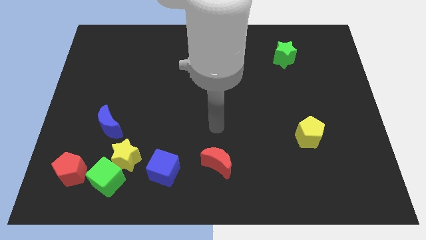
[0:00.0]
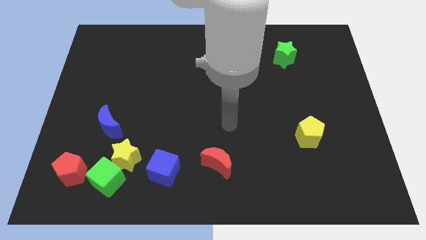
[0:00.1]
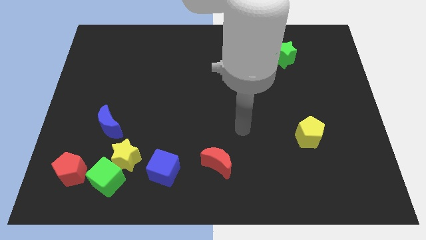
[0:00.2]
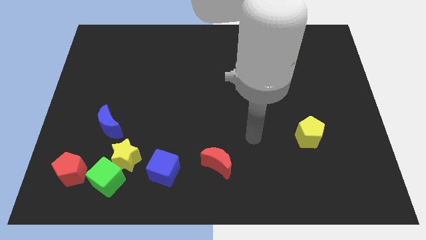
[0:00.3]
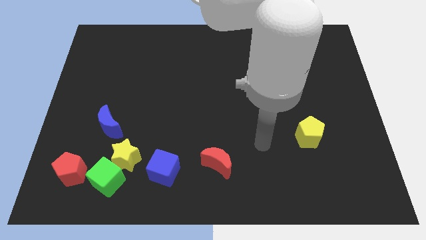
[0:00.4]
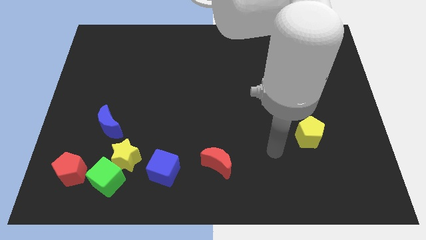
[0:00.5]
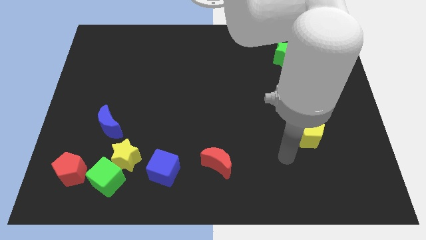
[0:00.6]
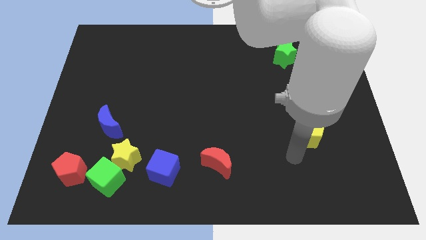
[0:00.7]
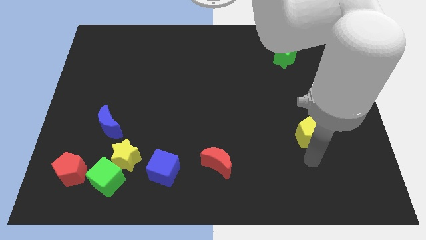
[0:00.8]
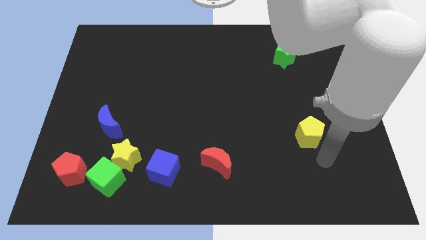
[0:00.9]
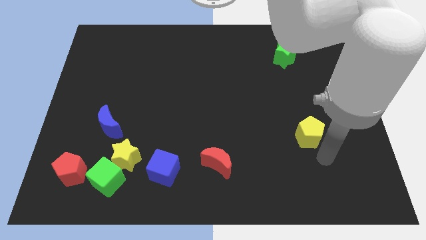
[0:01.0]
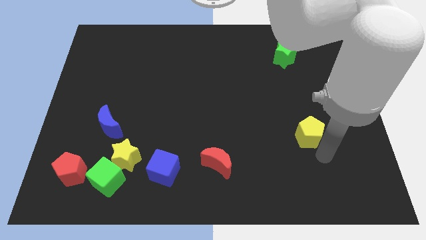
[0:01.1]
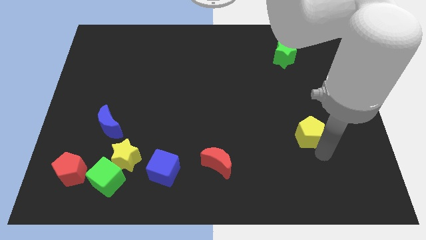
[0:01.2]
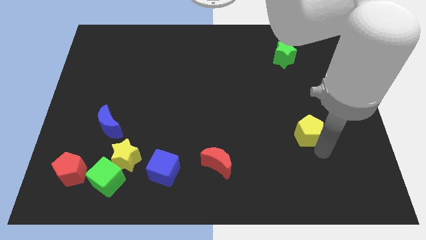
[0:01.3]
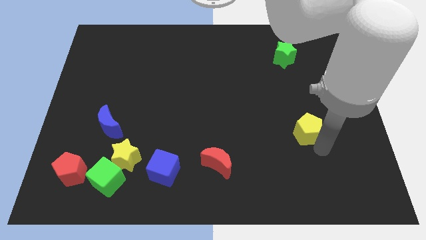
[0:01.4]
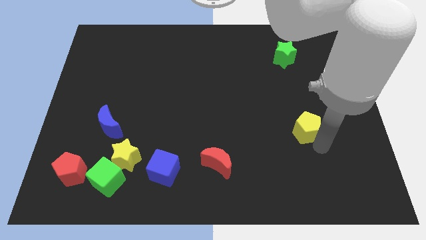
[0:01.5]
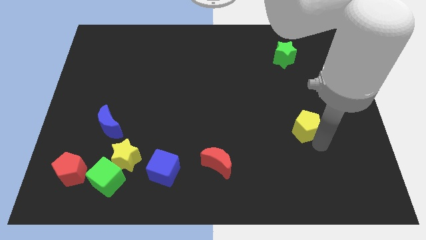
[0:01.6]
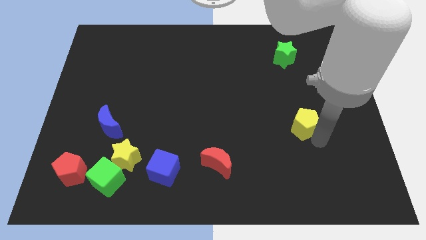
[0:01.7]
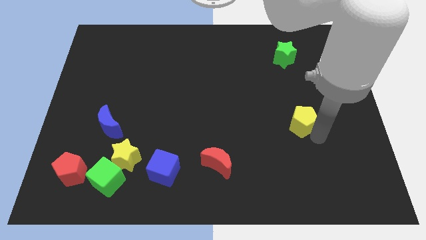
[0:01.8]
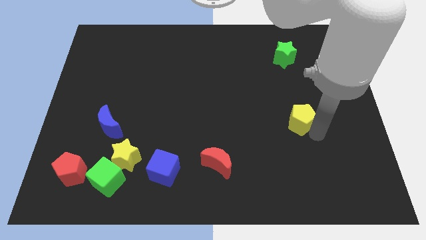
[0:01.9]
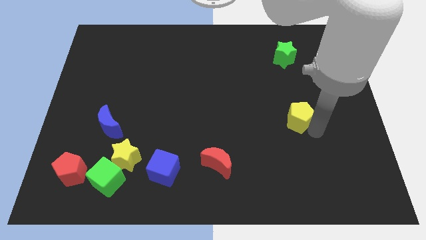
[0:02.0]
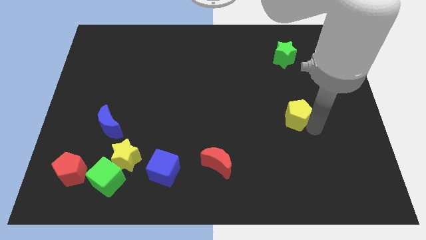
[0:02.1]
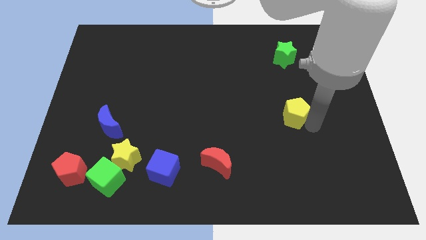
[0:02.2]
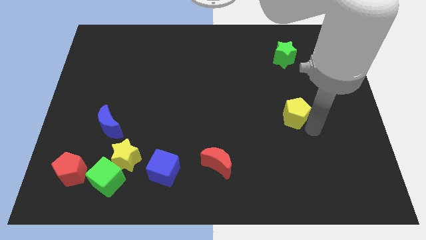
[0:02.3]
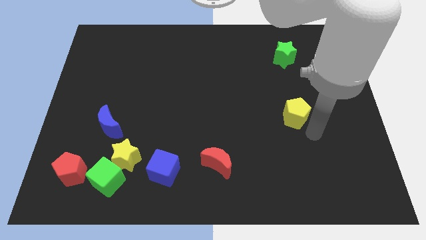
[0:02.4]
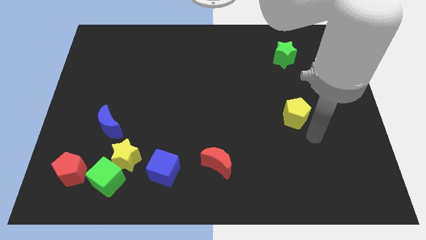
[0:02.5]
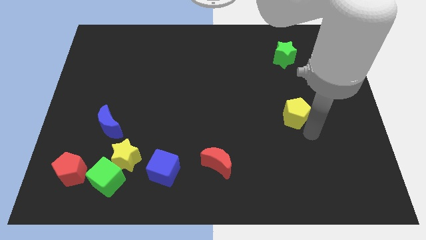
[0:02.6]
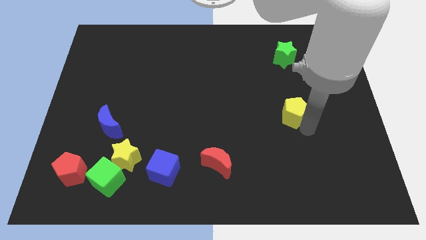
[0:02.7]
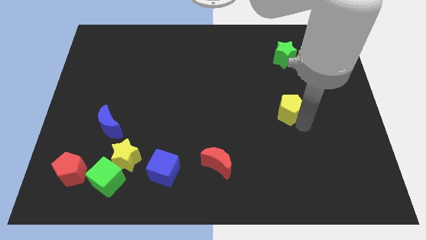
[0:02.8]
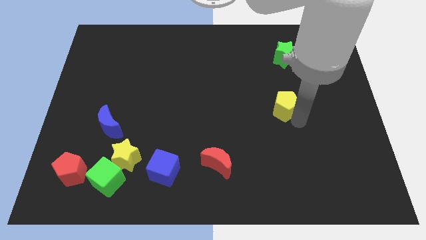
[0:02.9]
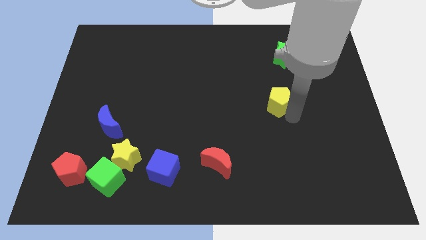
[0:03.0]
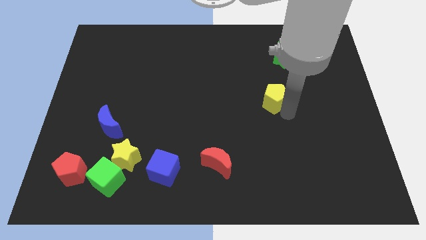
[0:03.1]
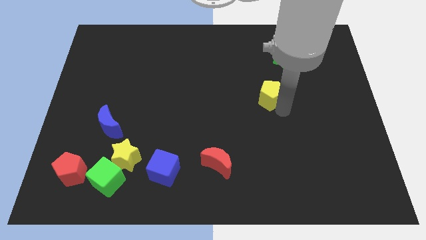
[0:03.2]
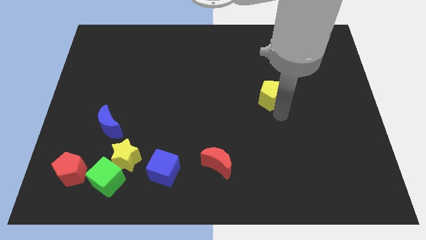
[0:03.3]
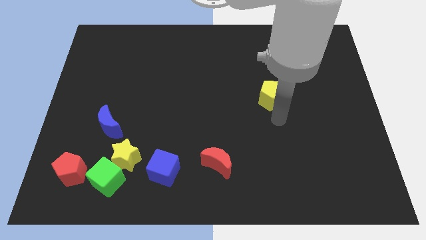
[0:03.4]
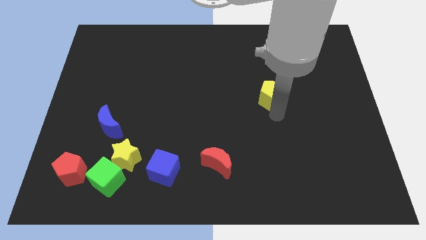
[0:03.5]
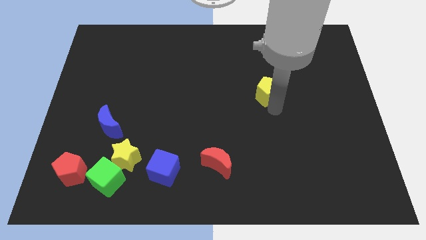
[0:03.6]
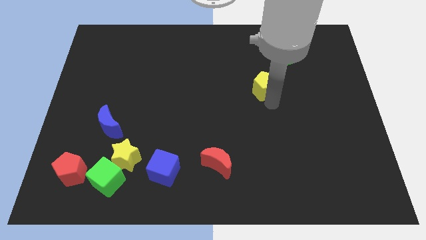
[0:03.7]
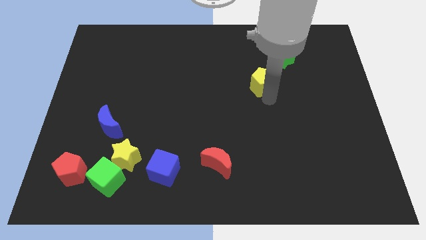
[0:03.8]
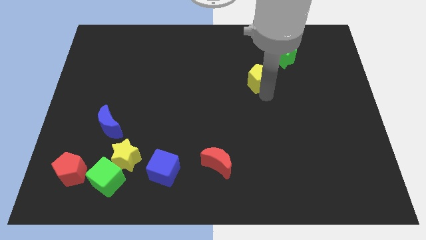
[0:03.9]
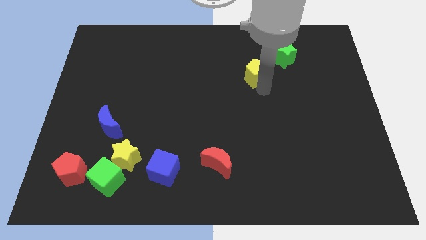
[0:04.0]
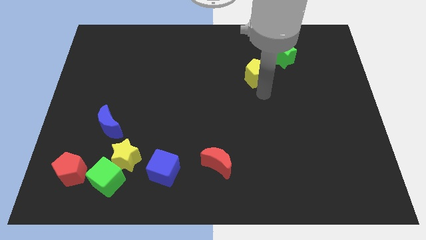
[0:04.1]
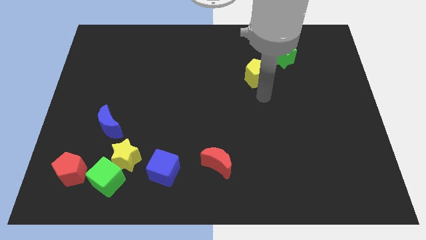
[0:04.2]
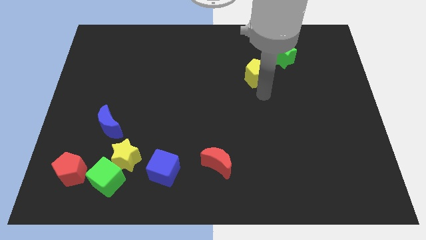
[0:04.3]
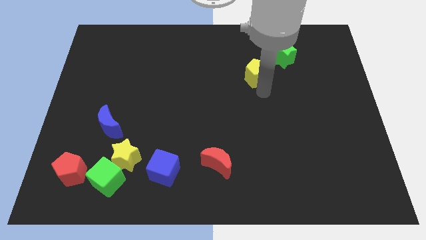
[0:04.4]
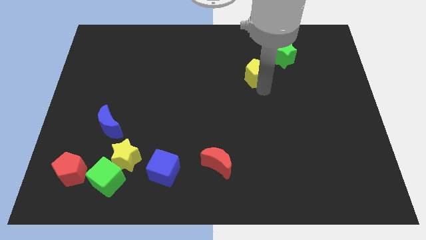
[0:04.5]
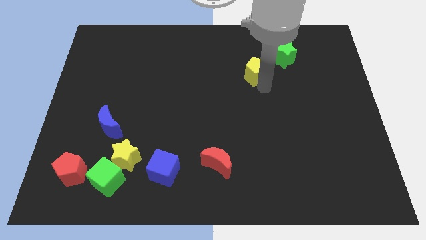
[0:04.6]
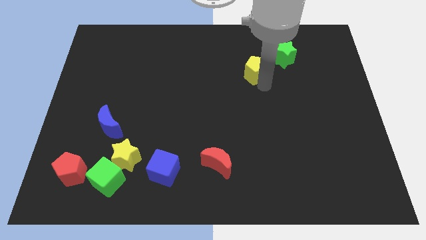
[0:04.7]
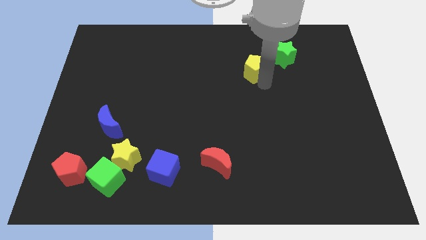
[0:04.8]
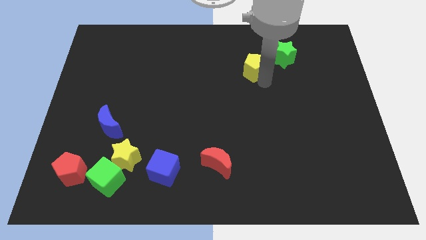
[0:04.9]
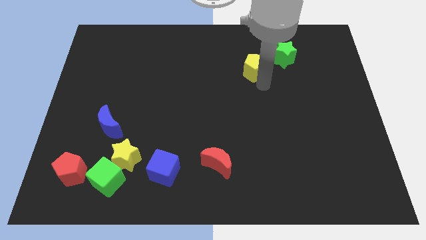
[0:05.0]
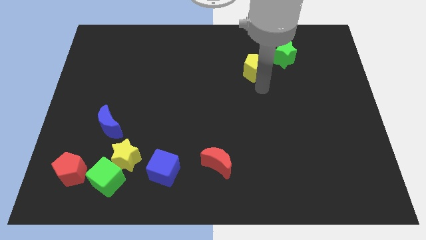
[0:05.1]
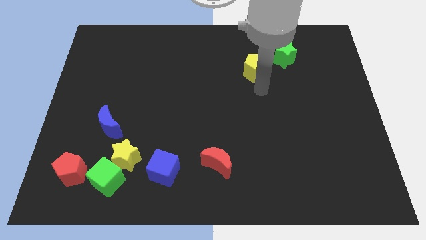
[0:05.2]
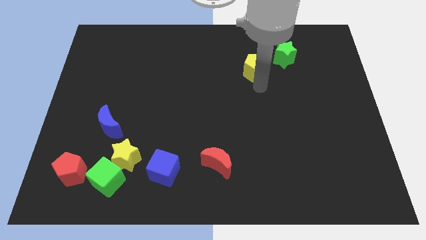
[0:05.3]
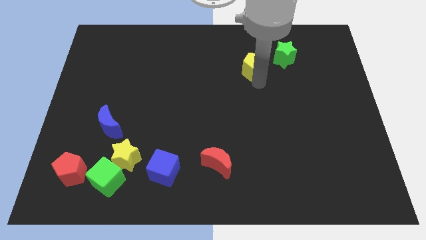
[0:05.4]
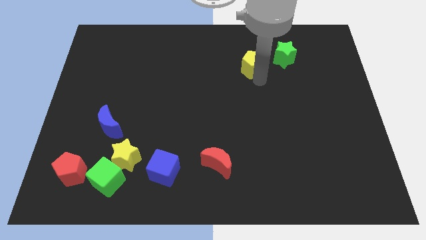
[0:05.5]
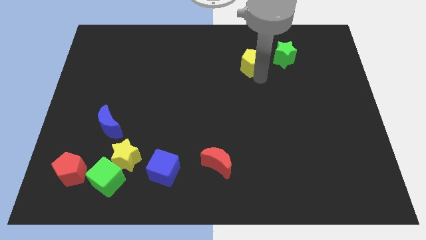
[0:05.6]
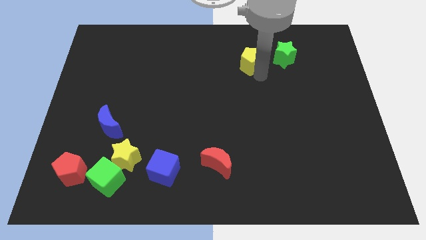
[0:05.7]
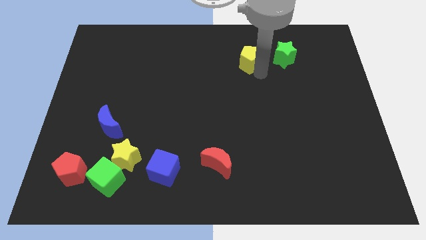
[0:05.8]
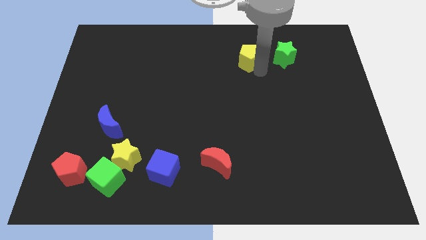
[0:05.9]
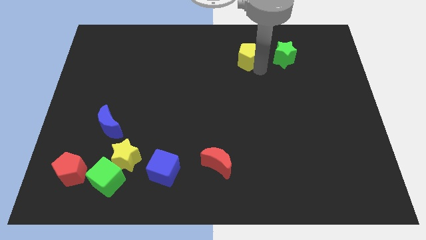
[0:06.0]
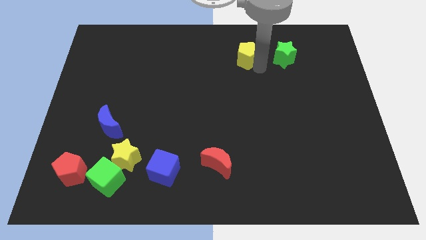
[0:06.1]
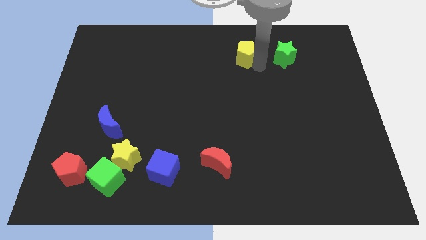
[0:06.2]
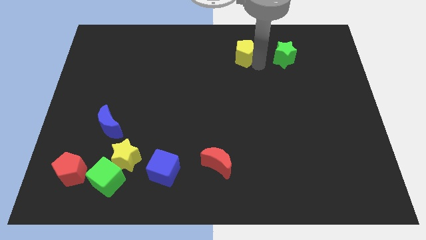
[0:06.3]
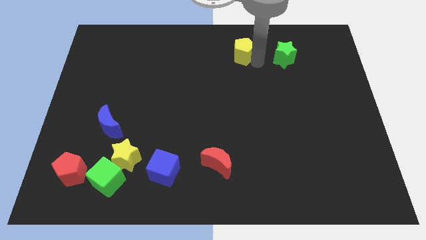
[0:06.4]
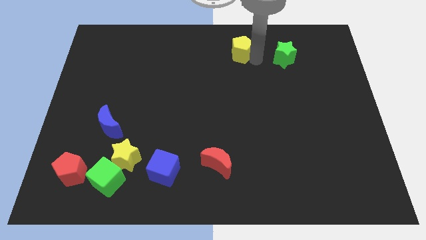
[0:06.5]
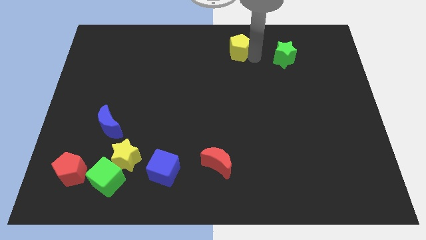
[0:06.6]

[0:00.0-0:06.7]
push the yellow pentagon to the top side

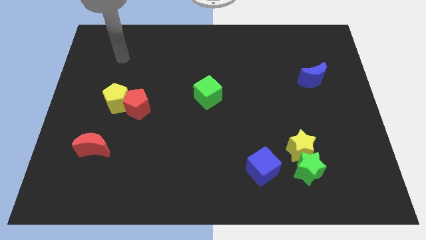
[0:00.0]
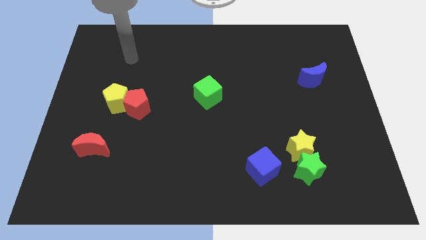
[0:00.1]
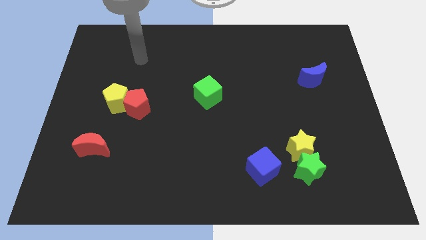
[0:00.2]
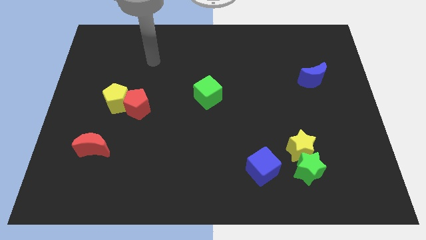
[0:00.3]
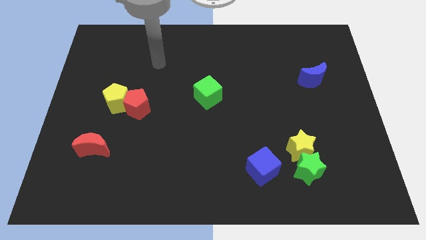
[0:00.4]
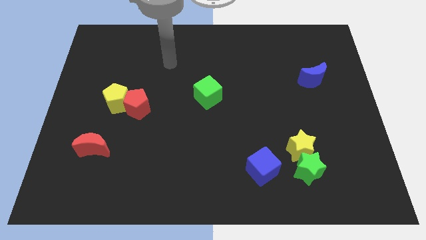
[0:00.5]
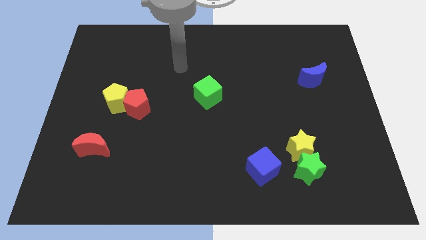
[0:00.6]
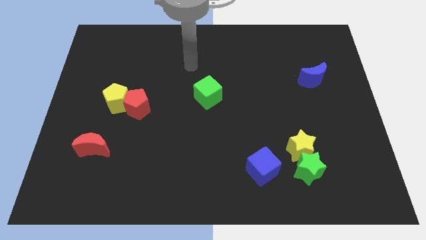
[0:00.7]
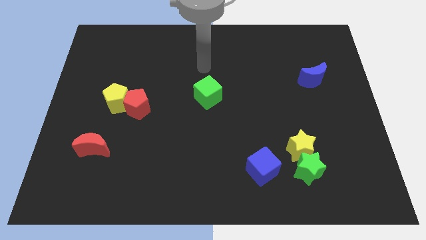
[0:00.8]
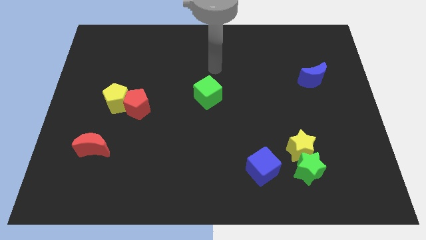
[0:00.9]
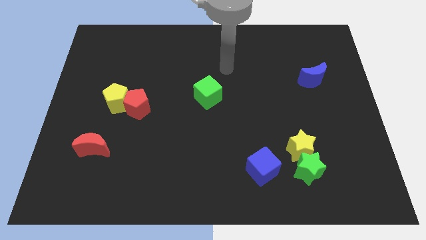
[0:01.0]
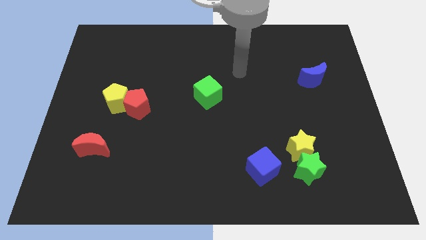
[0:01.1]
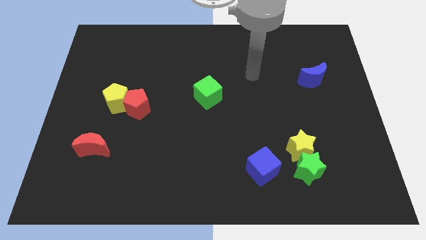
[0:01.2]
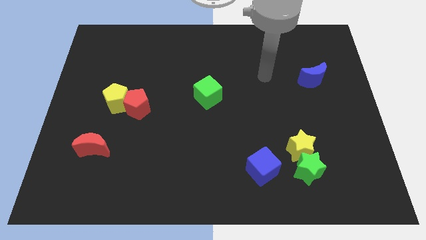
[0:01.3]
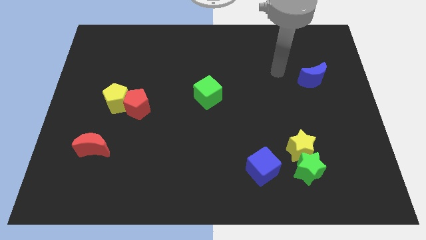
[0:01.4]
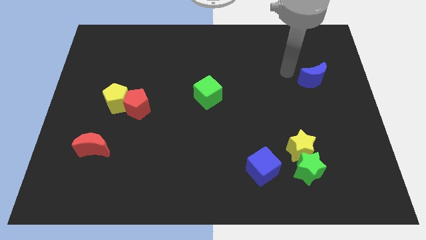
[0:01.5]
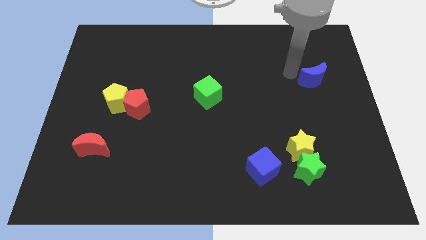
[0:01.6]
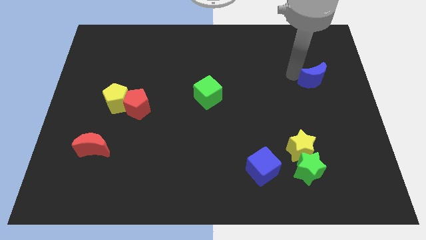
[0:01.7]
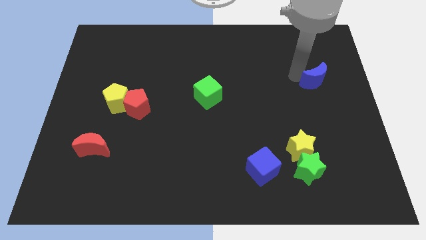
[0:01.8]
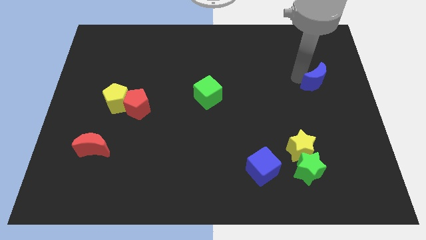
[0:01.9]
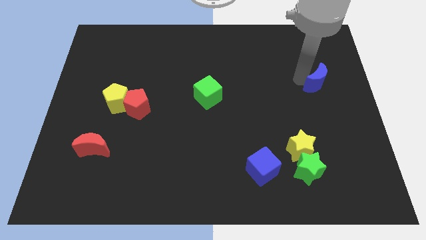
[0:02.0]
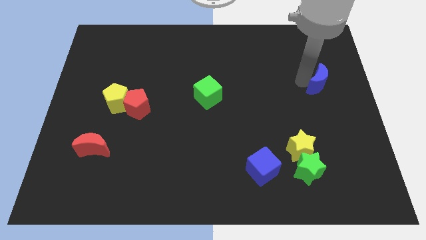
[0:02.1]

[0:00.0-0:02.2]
slide the blue moon to the center right
